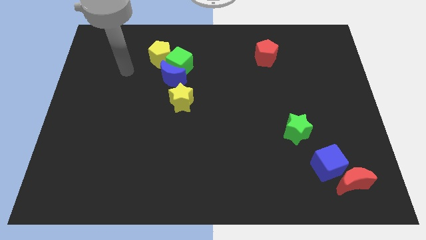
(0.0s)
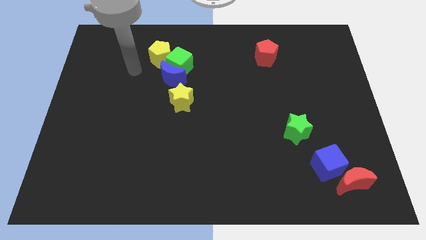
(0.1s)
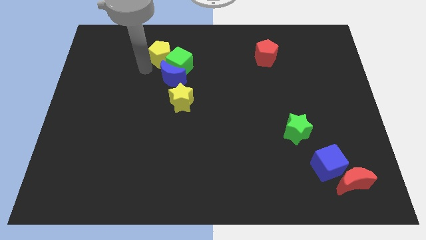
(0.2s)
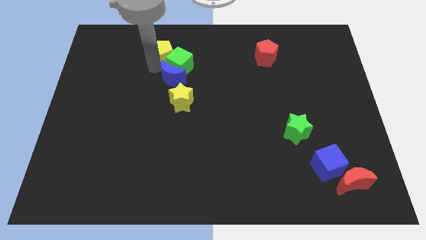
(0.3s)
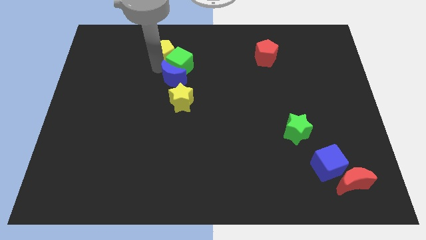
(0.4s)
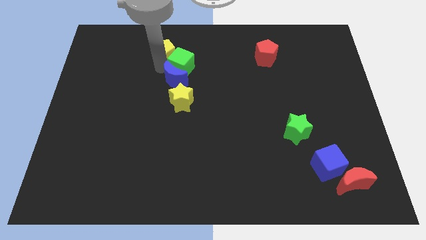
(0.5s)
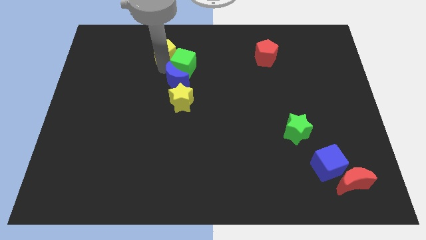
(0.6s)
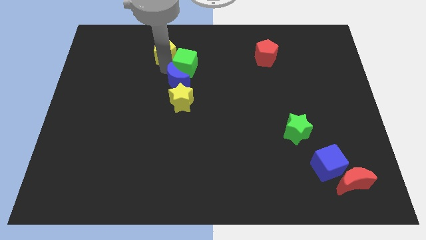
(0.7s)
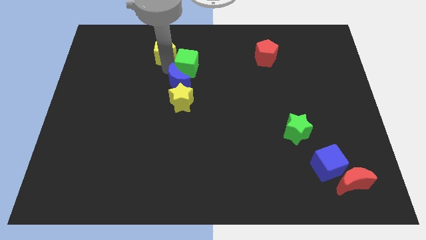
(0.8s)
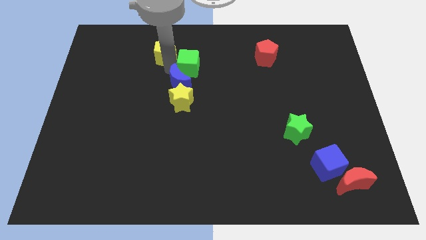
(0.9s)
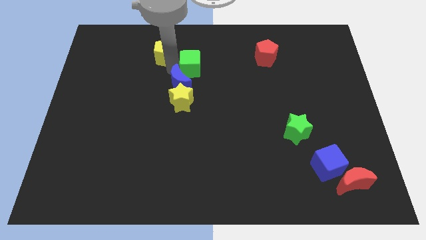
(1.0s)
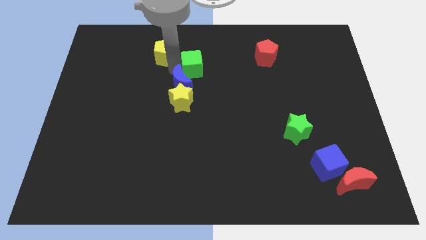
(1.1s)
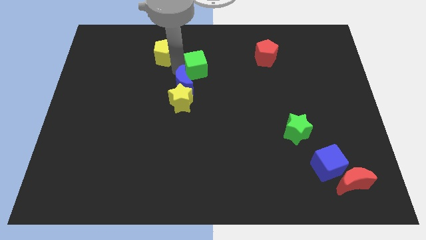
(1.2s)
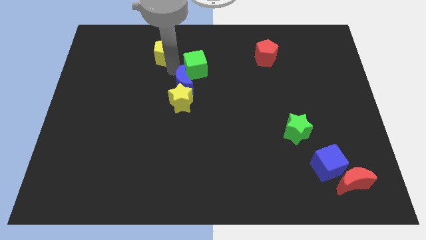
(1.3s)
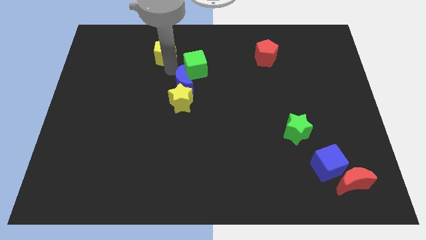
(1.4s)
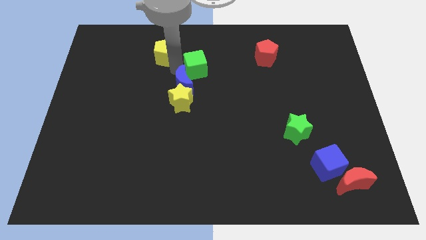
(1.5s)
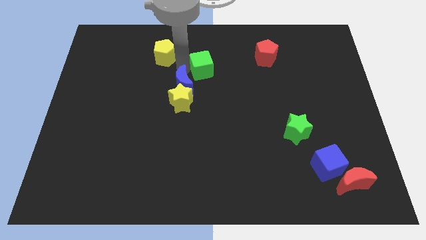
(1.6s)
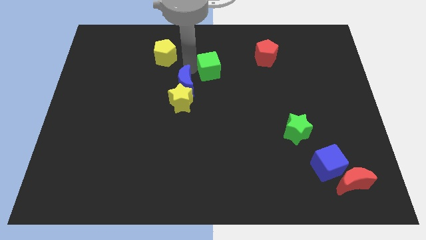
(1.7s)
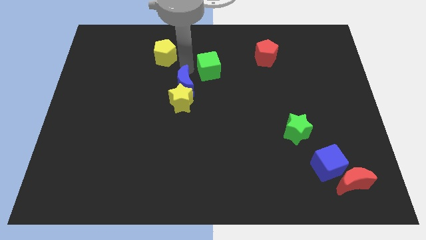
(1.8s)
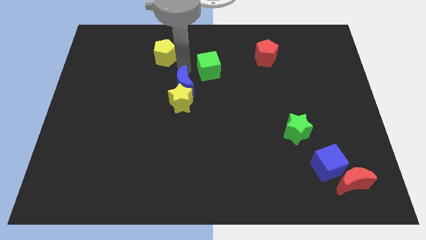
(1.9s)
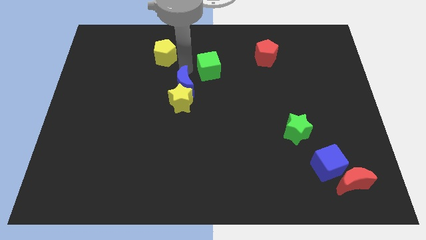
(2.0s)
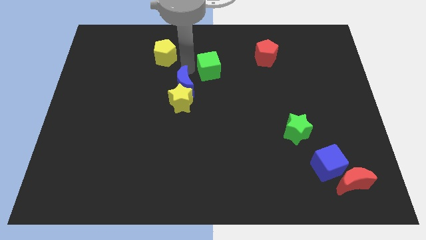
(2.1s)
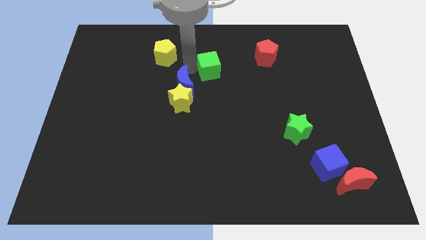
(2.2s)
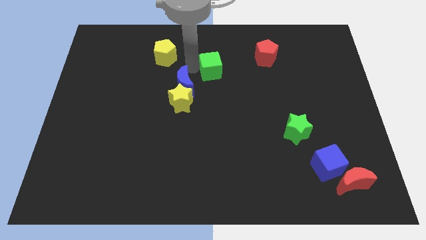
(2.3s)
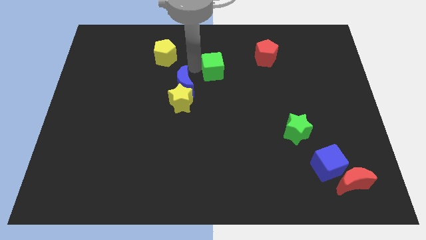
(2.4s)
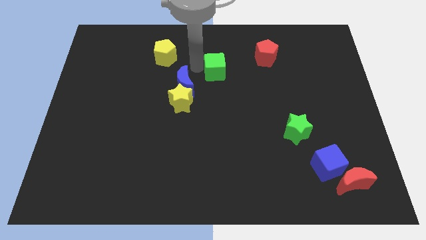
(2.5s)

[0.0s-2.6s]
separate the green cube from the blue moon and yellow pentagon

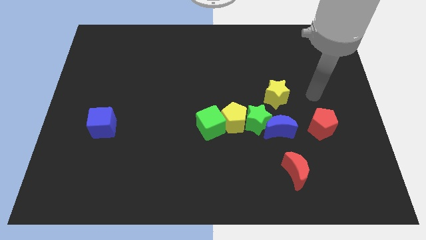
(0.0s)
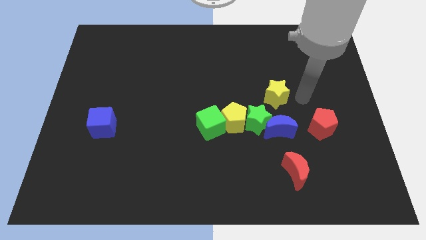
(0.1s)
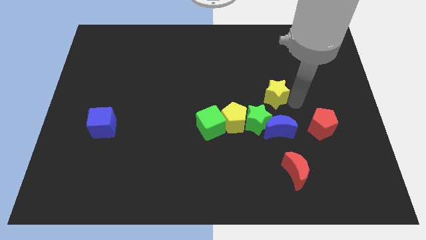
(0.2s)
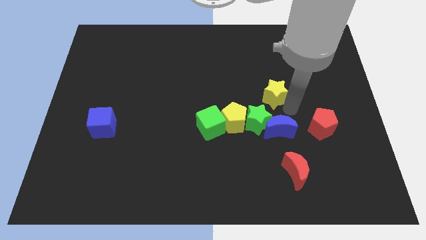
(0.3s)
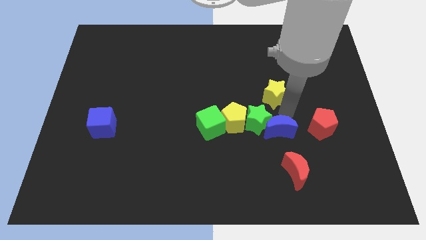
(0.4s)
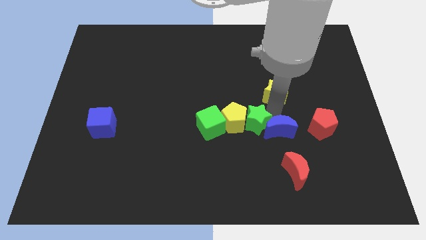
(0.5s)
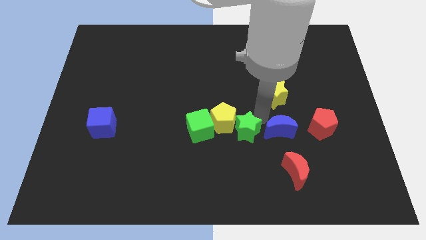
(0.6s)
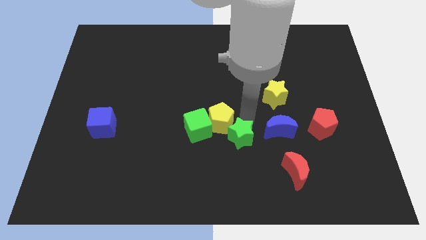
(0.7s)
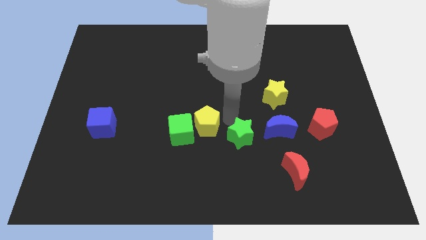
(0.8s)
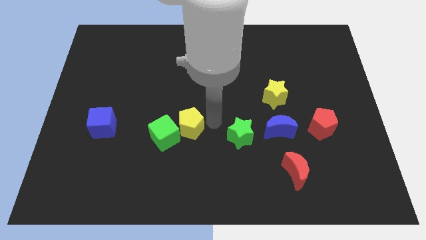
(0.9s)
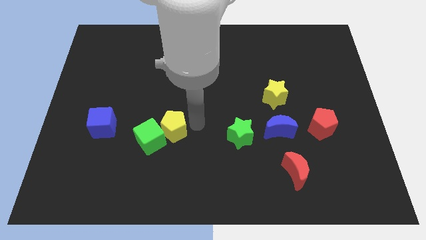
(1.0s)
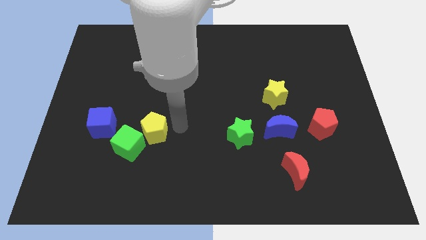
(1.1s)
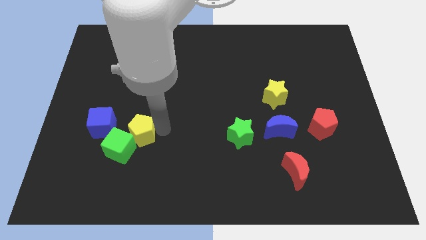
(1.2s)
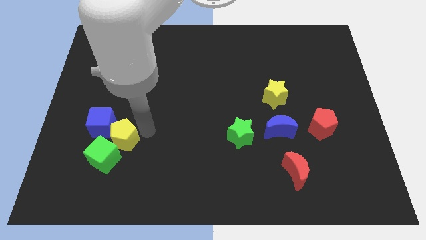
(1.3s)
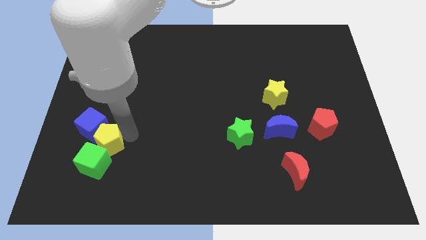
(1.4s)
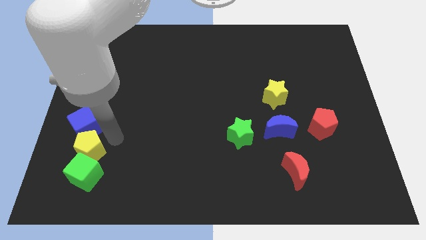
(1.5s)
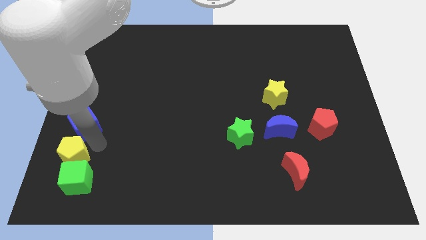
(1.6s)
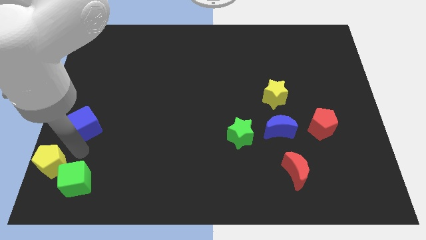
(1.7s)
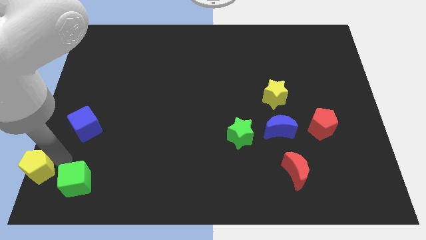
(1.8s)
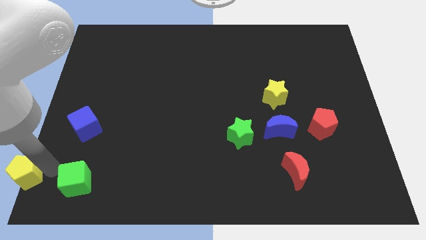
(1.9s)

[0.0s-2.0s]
pull the green cube apart from the yellow pentagon

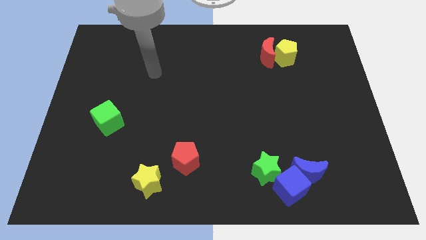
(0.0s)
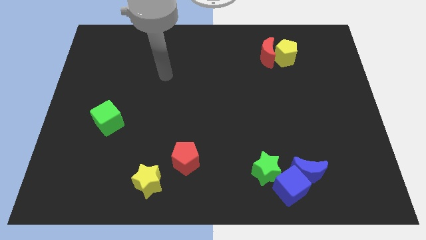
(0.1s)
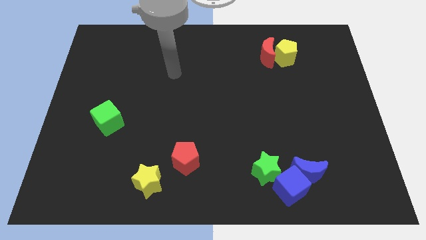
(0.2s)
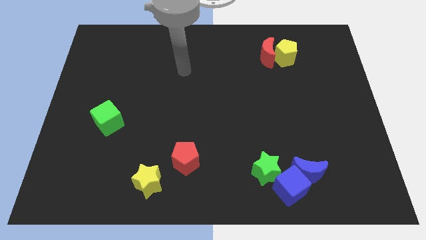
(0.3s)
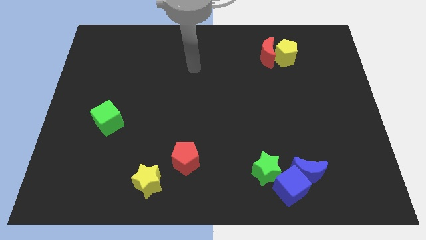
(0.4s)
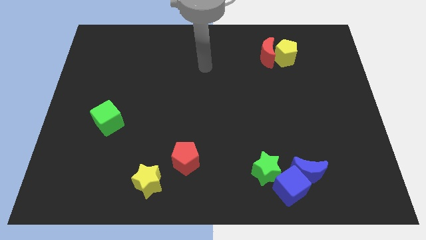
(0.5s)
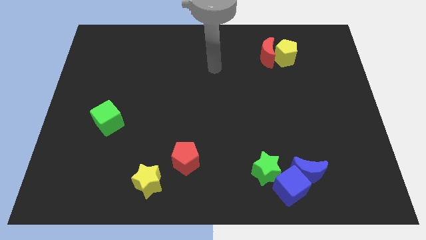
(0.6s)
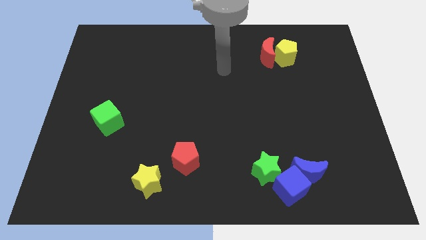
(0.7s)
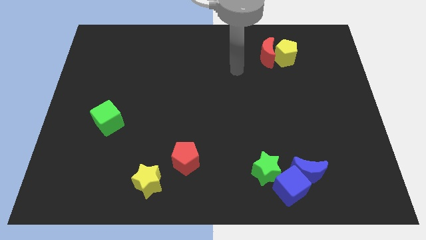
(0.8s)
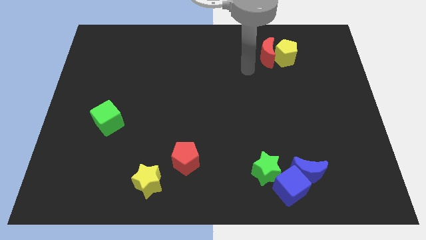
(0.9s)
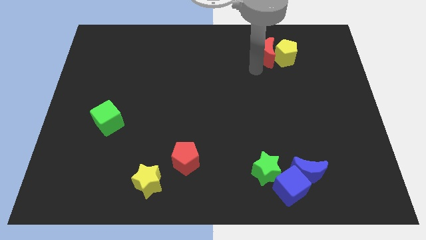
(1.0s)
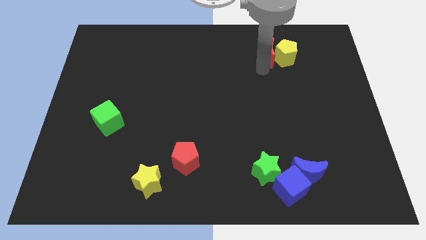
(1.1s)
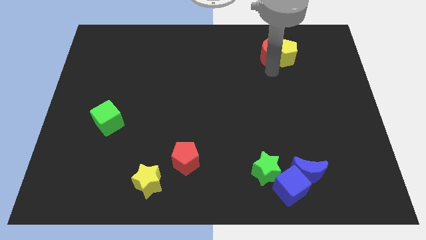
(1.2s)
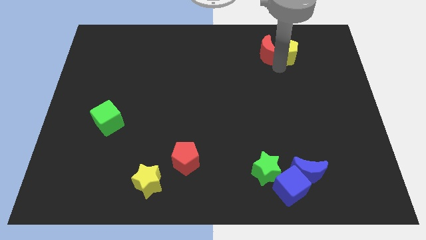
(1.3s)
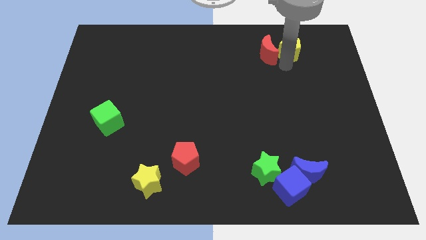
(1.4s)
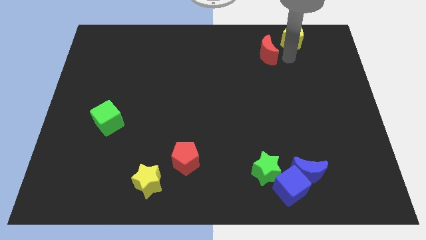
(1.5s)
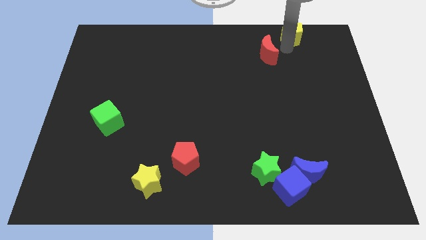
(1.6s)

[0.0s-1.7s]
move the red moon away from the yellow pentagon

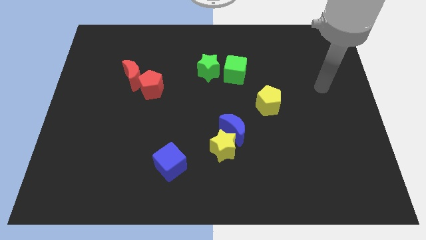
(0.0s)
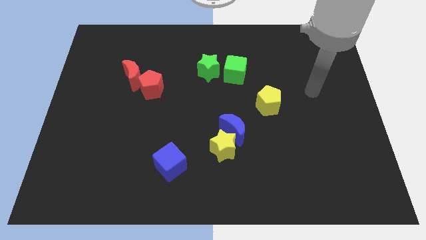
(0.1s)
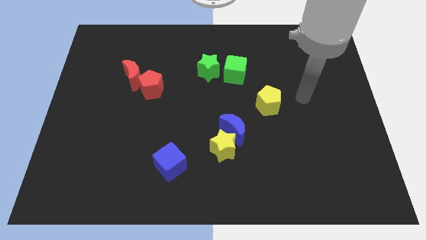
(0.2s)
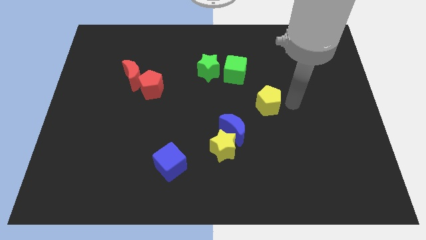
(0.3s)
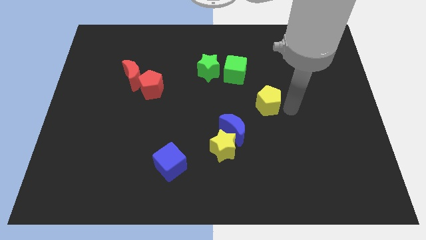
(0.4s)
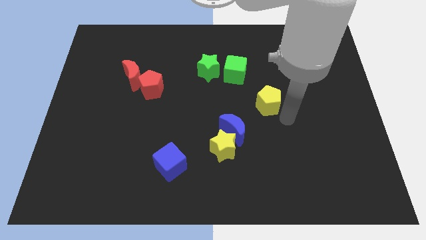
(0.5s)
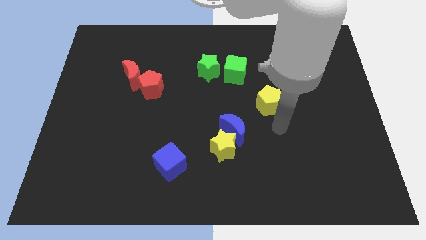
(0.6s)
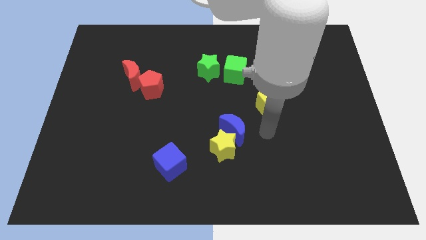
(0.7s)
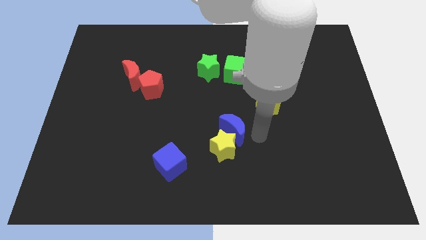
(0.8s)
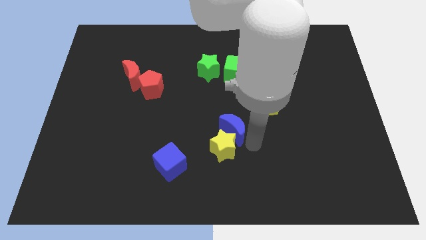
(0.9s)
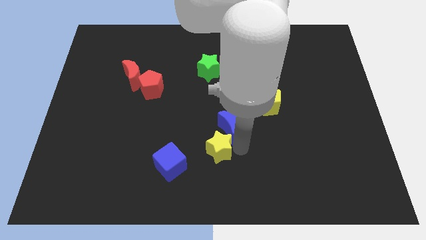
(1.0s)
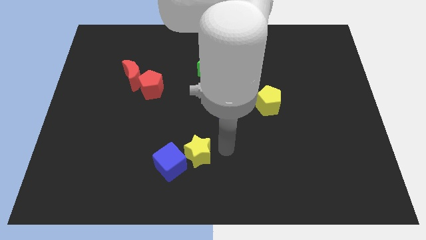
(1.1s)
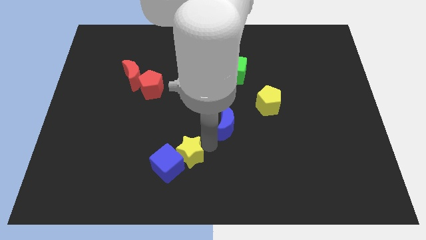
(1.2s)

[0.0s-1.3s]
separate the blue moon from the yellow star

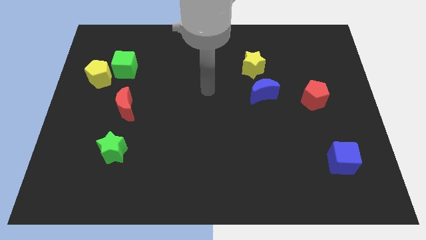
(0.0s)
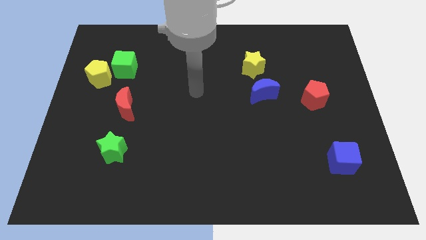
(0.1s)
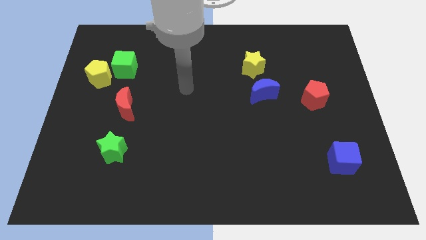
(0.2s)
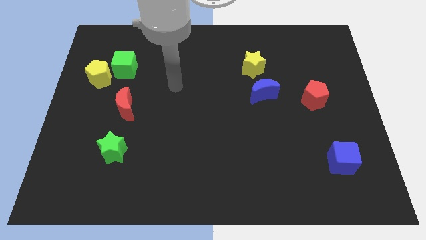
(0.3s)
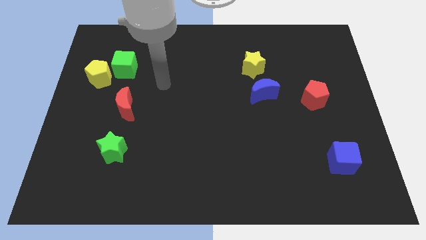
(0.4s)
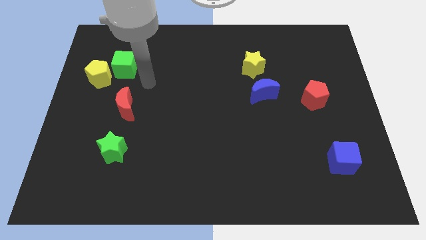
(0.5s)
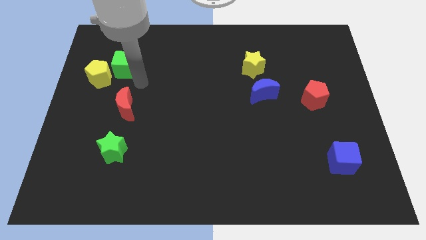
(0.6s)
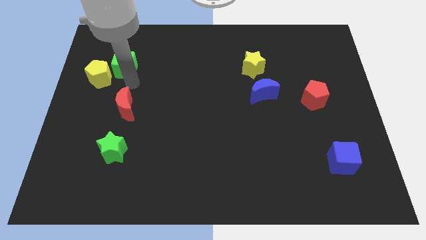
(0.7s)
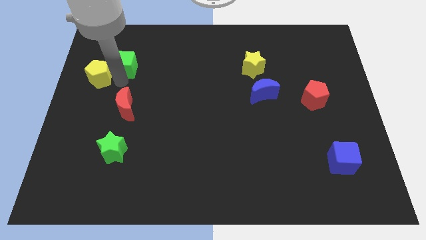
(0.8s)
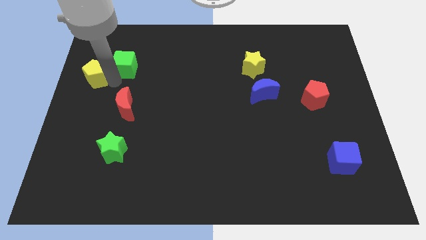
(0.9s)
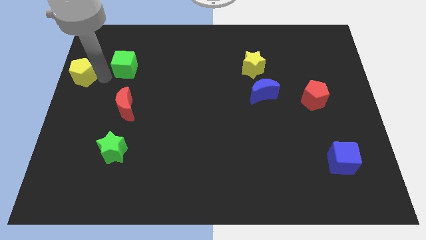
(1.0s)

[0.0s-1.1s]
separate the green cube from the yellow pentagon

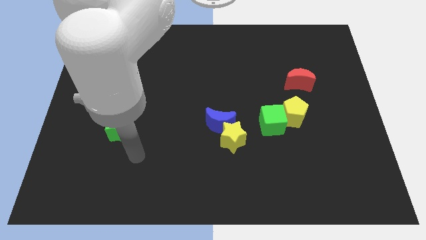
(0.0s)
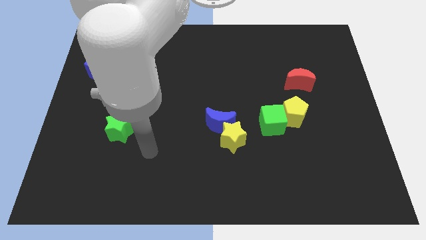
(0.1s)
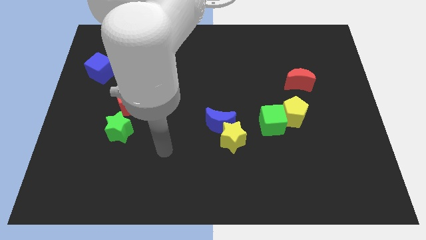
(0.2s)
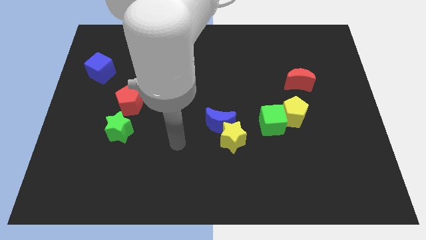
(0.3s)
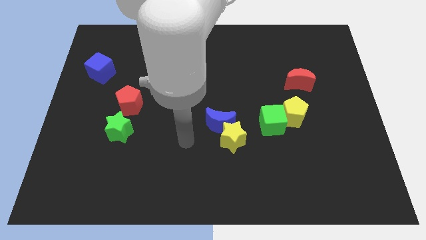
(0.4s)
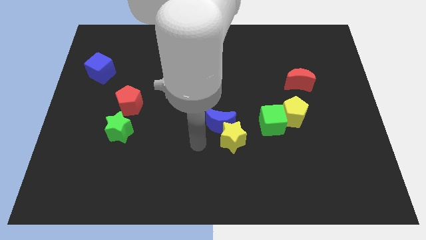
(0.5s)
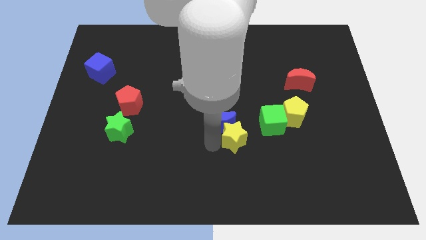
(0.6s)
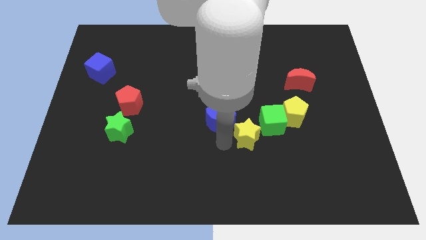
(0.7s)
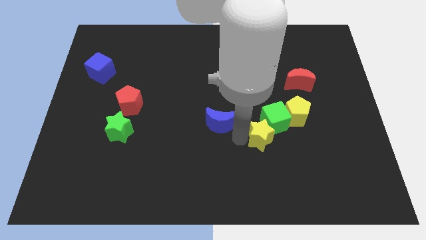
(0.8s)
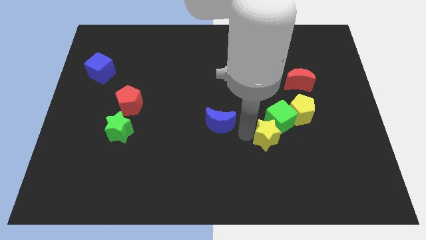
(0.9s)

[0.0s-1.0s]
pull the blue moon apart from the yellow star
